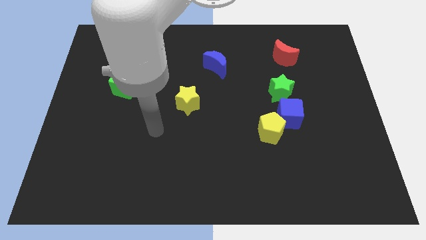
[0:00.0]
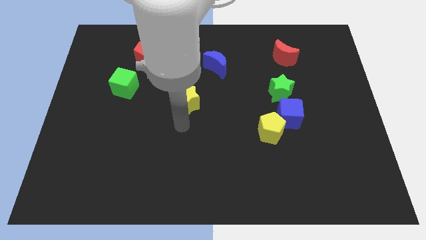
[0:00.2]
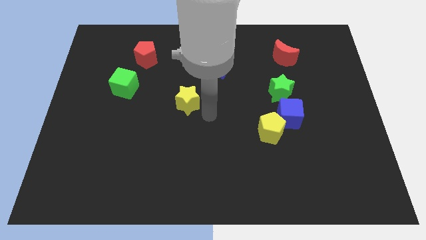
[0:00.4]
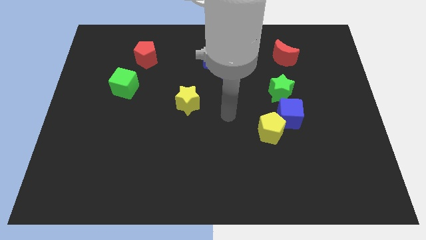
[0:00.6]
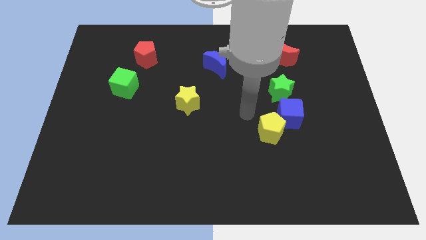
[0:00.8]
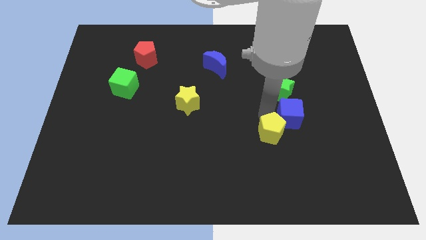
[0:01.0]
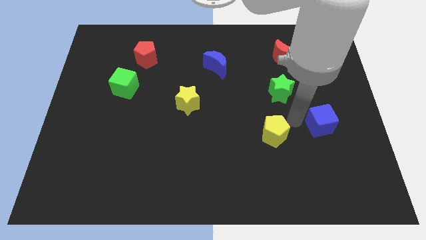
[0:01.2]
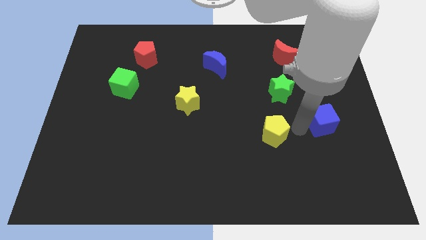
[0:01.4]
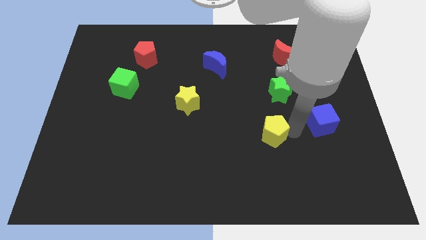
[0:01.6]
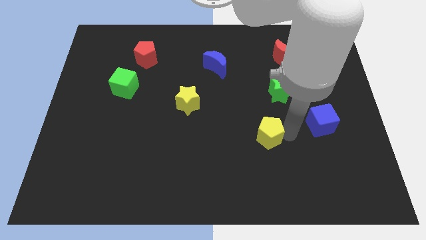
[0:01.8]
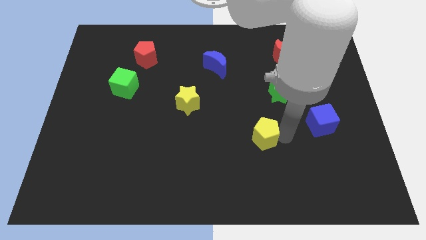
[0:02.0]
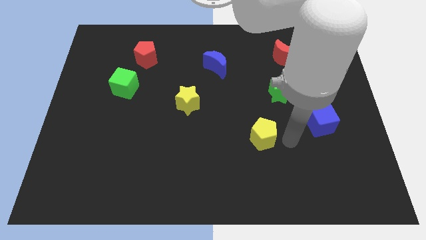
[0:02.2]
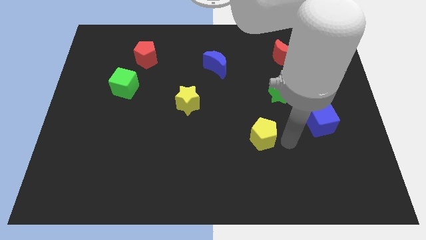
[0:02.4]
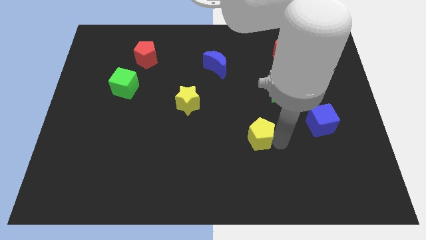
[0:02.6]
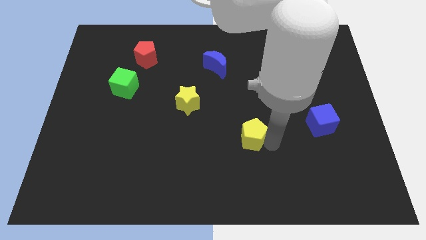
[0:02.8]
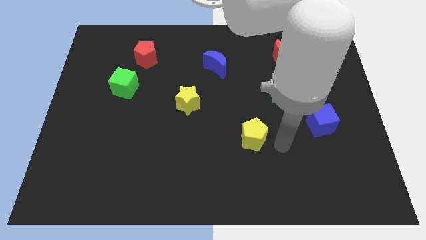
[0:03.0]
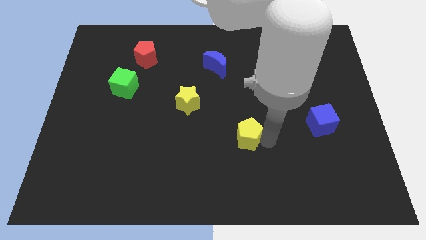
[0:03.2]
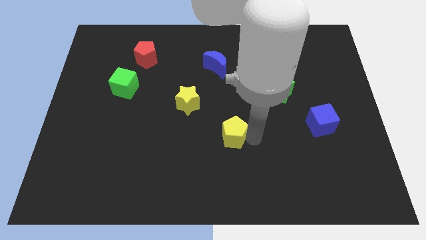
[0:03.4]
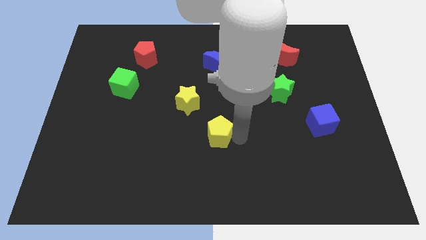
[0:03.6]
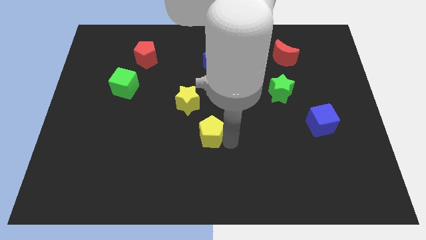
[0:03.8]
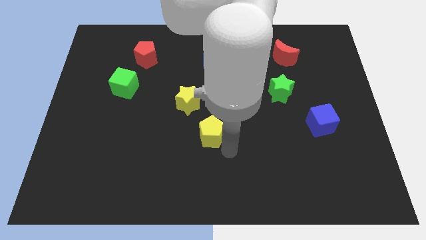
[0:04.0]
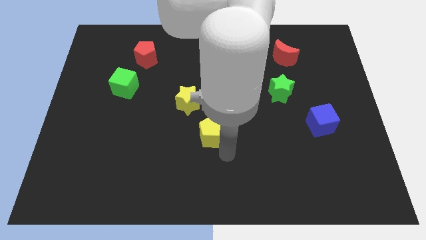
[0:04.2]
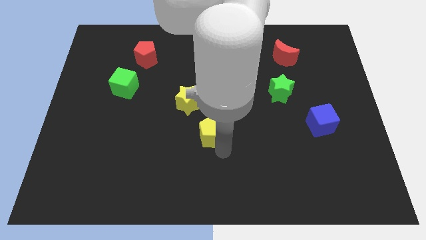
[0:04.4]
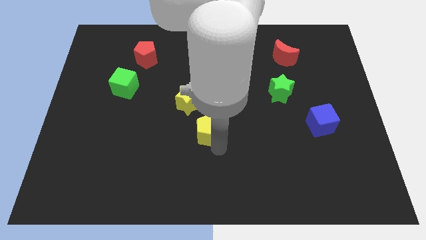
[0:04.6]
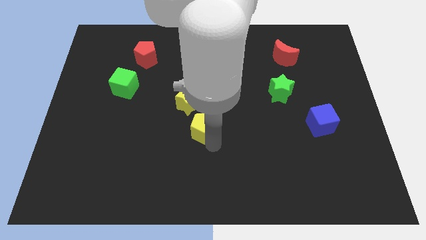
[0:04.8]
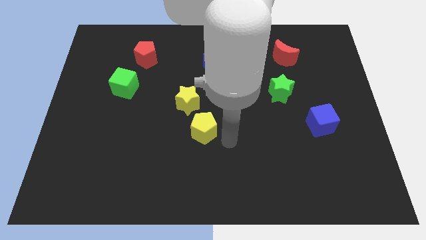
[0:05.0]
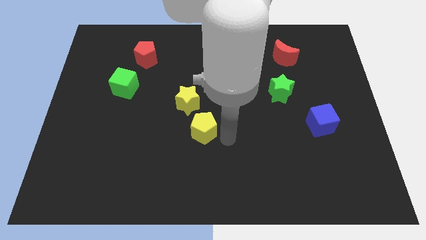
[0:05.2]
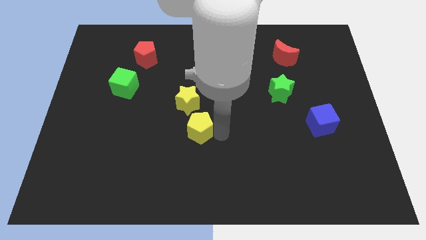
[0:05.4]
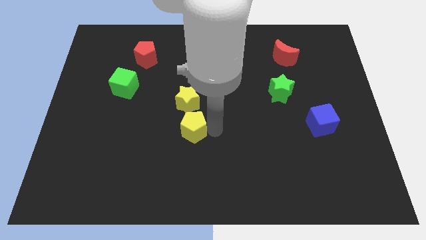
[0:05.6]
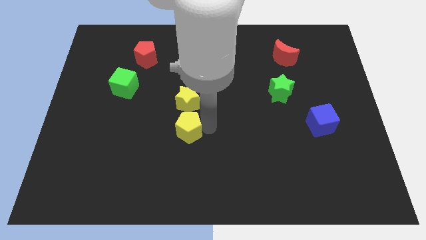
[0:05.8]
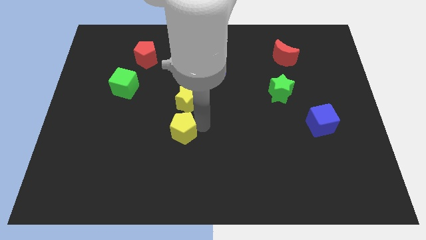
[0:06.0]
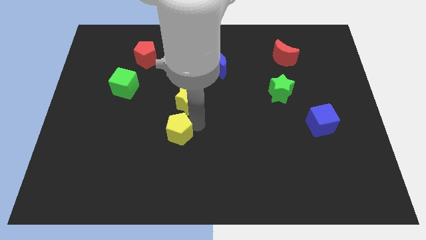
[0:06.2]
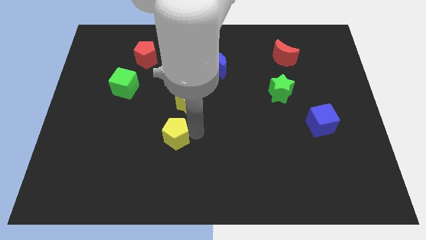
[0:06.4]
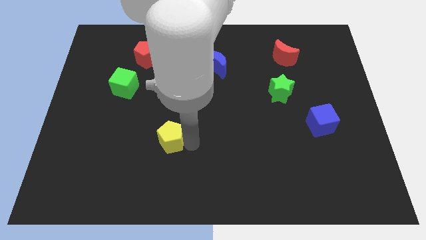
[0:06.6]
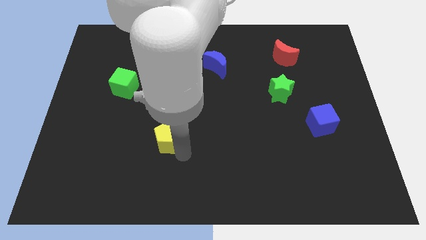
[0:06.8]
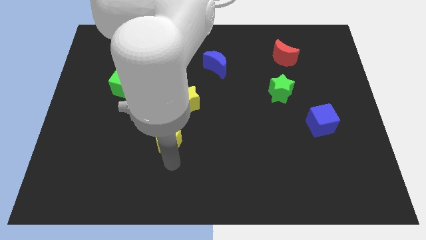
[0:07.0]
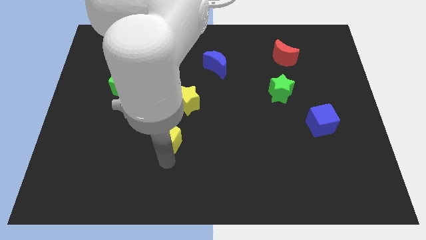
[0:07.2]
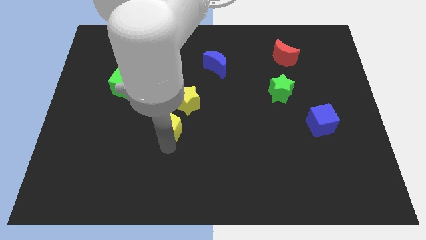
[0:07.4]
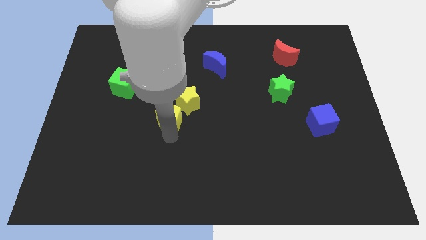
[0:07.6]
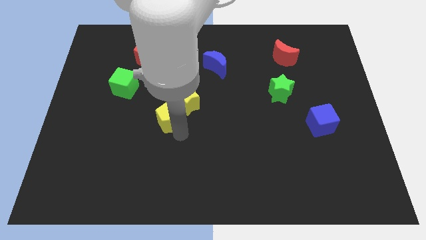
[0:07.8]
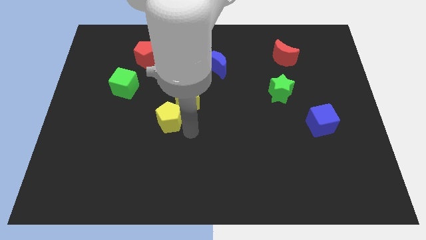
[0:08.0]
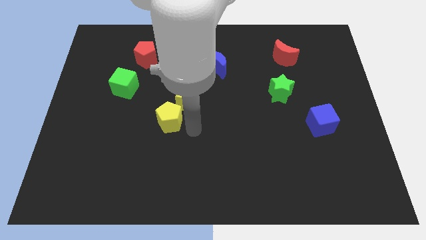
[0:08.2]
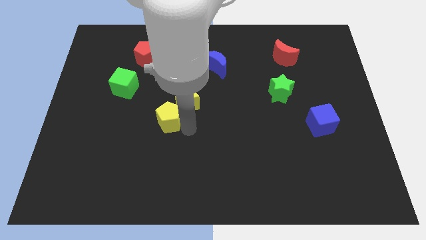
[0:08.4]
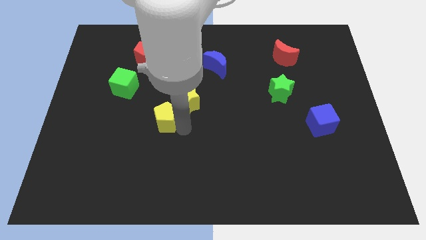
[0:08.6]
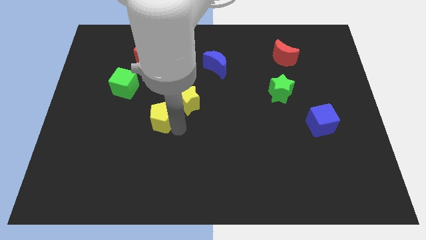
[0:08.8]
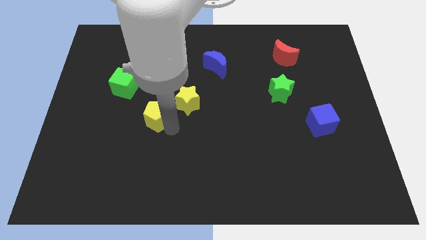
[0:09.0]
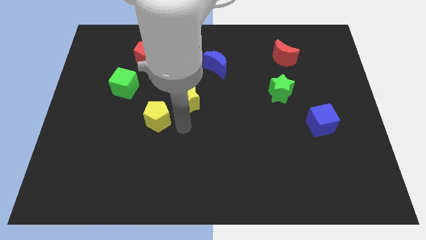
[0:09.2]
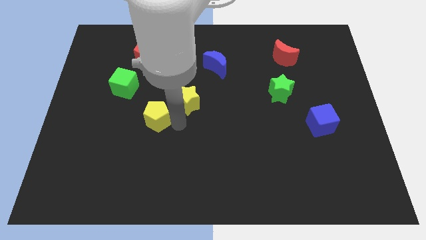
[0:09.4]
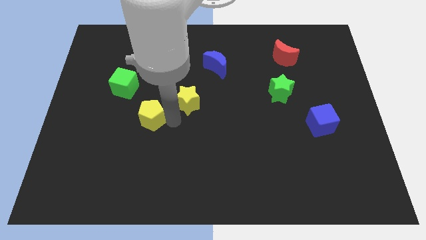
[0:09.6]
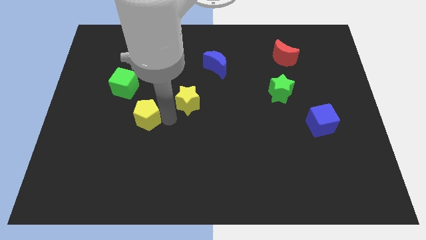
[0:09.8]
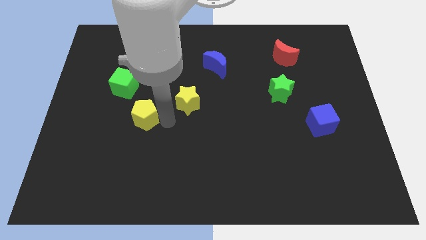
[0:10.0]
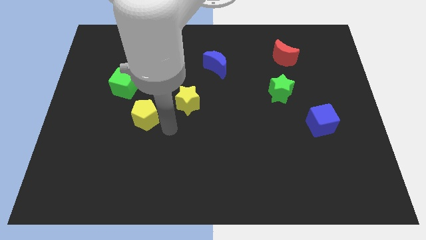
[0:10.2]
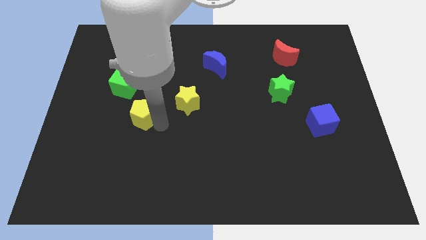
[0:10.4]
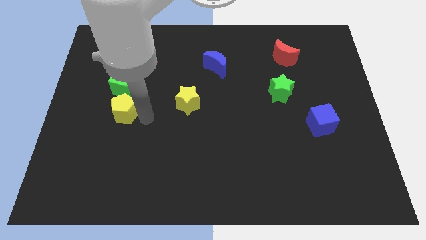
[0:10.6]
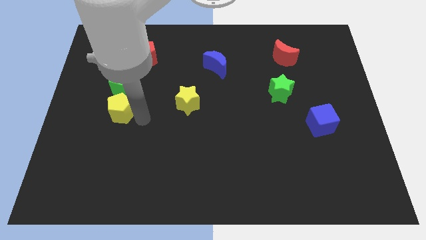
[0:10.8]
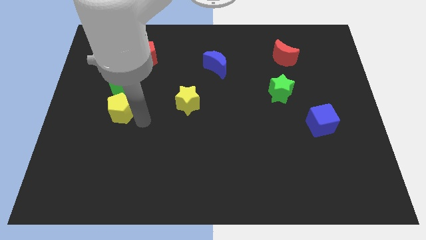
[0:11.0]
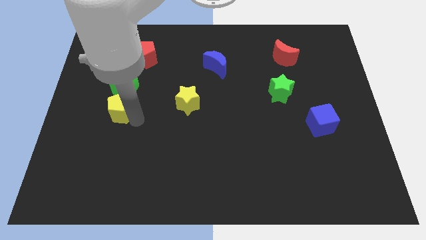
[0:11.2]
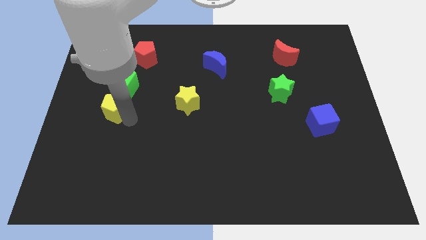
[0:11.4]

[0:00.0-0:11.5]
move the yellow pentagon to the bottom left of the green cube

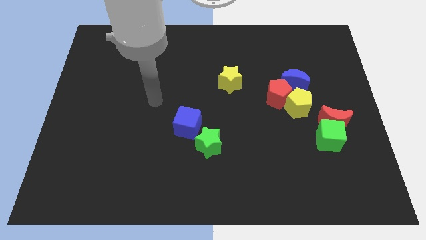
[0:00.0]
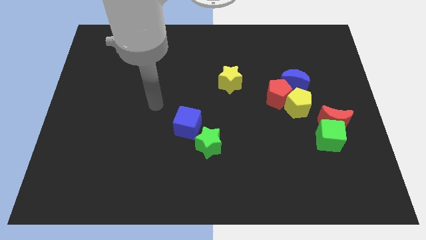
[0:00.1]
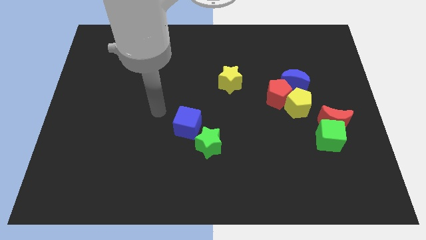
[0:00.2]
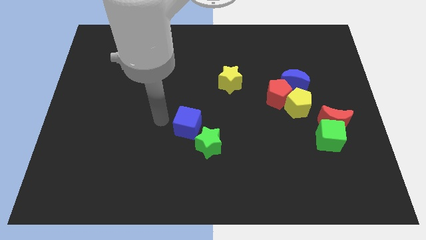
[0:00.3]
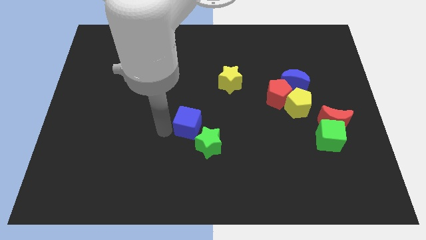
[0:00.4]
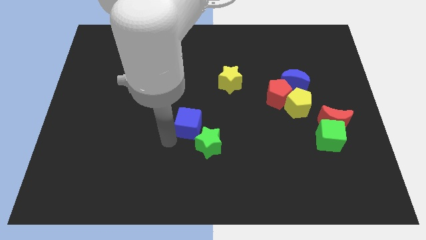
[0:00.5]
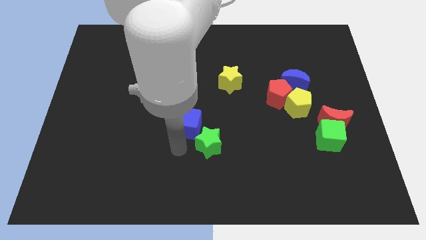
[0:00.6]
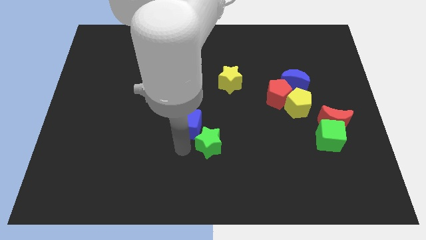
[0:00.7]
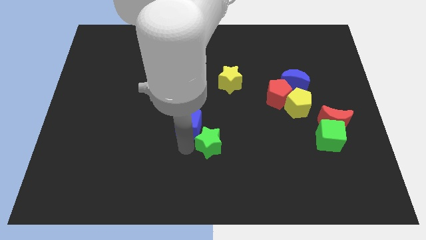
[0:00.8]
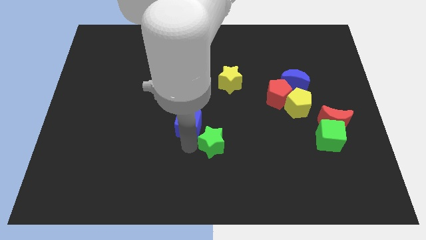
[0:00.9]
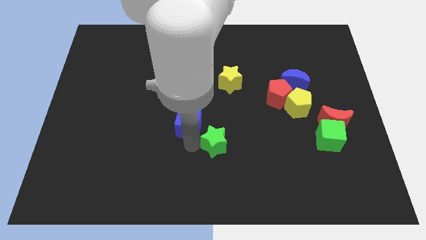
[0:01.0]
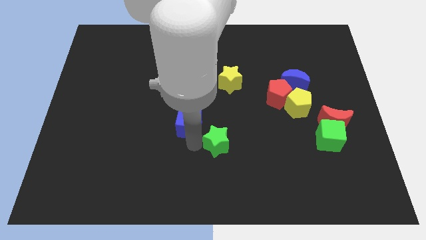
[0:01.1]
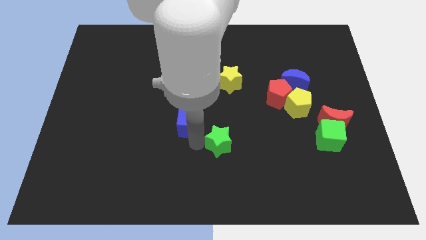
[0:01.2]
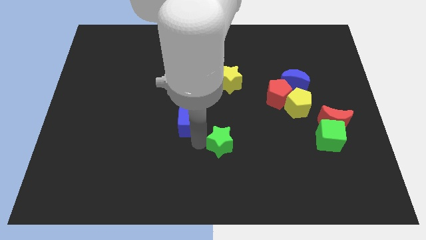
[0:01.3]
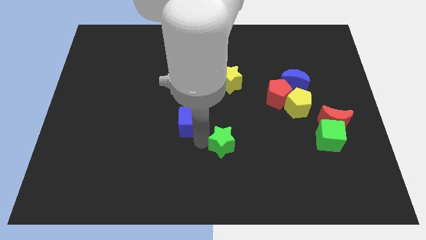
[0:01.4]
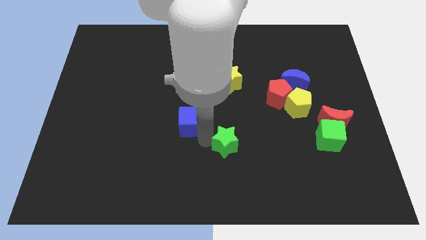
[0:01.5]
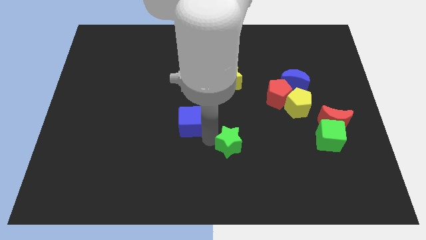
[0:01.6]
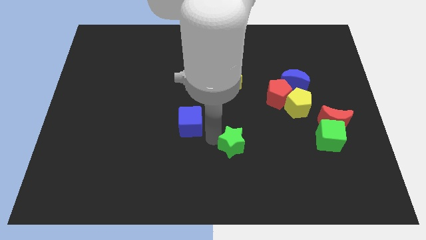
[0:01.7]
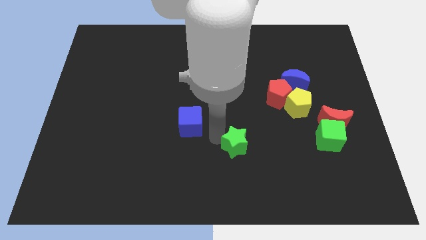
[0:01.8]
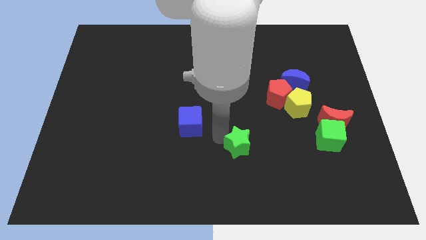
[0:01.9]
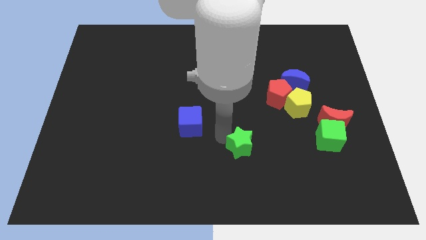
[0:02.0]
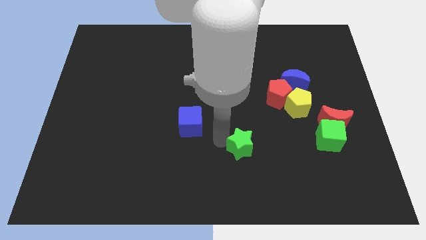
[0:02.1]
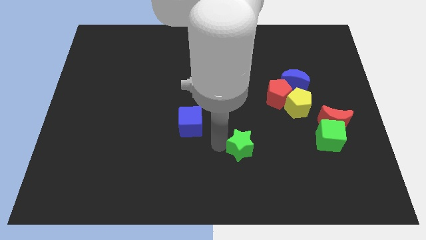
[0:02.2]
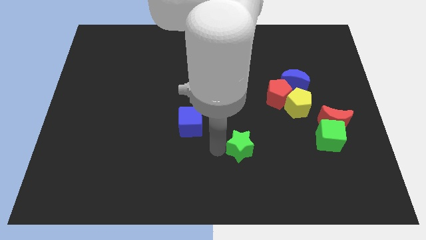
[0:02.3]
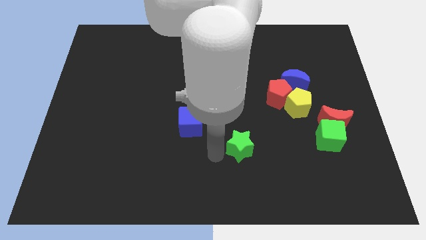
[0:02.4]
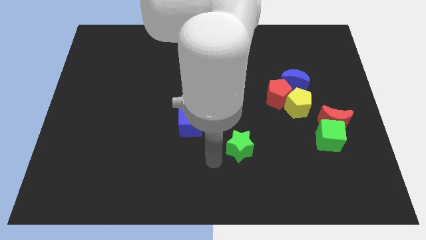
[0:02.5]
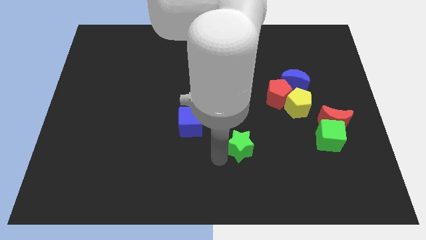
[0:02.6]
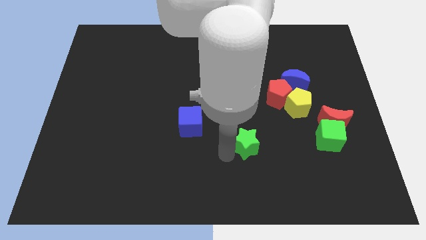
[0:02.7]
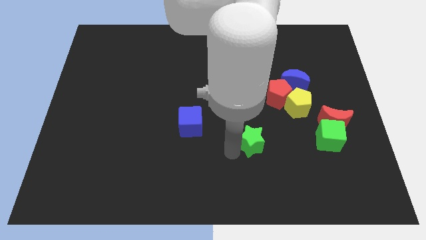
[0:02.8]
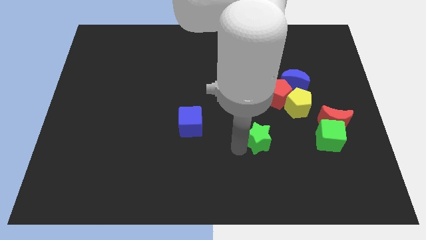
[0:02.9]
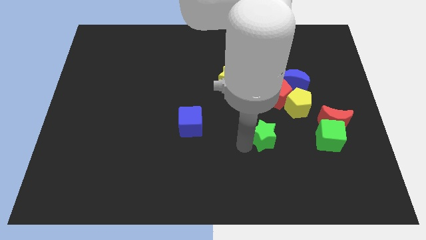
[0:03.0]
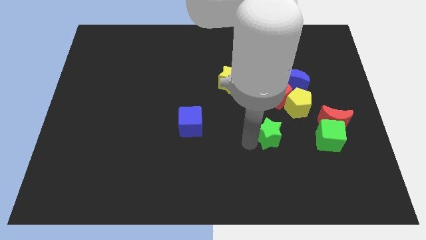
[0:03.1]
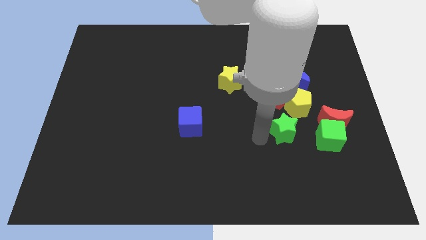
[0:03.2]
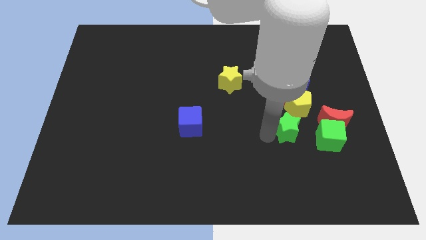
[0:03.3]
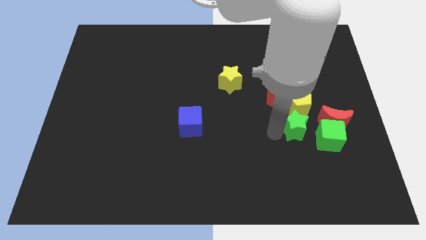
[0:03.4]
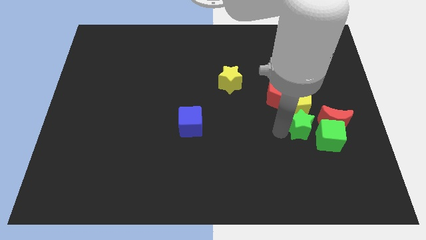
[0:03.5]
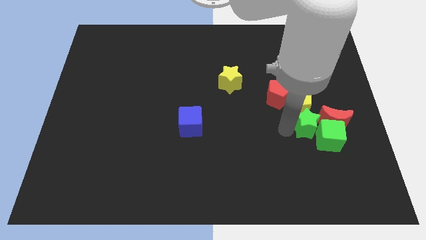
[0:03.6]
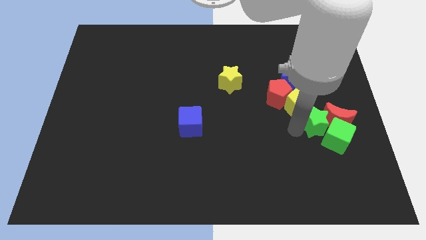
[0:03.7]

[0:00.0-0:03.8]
slide the green star above the green cube
